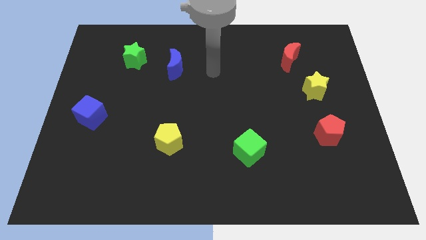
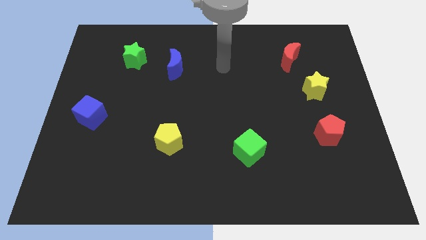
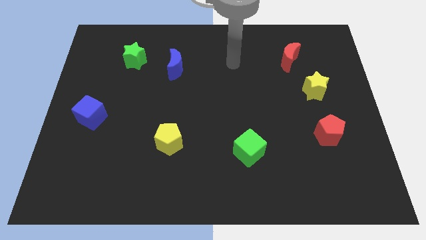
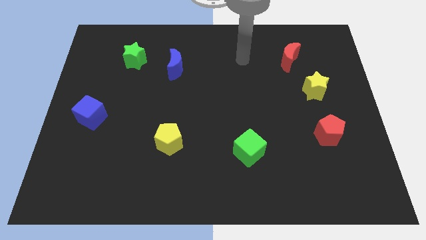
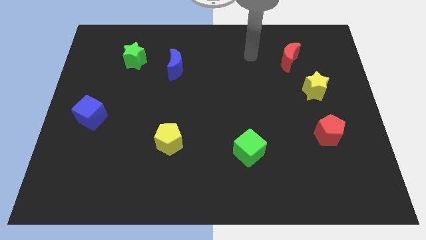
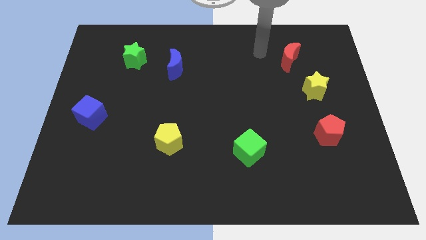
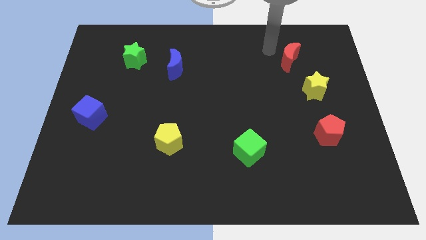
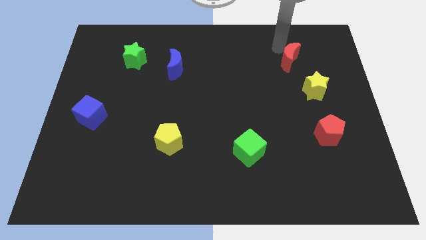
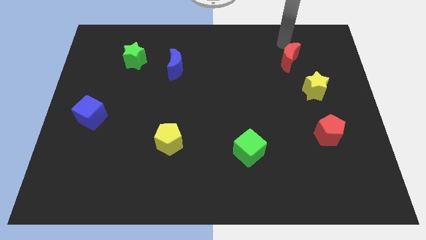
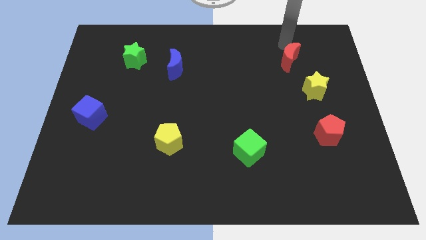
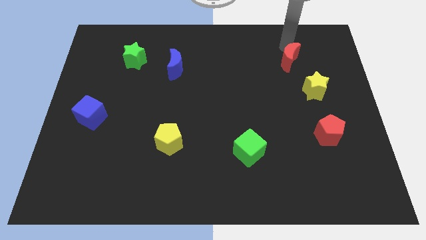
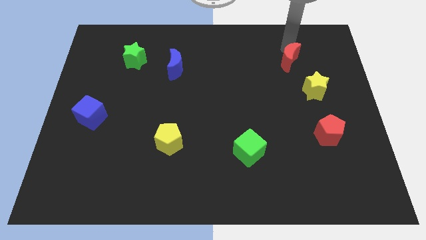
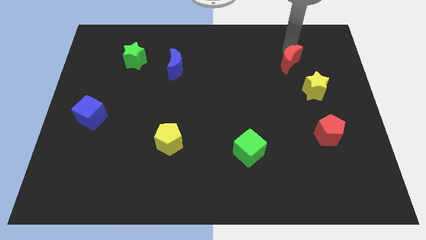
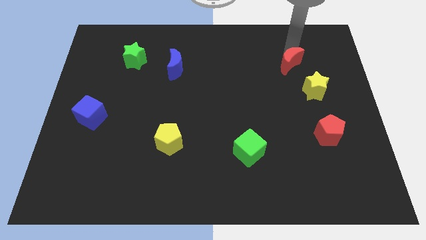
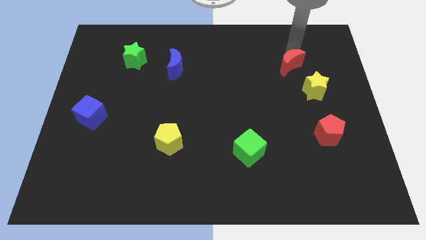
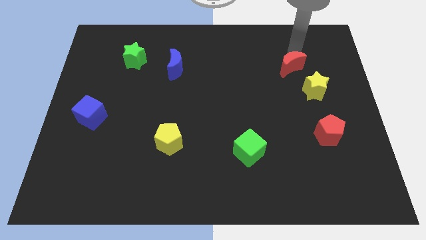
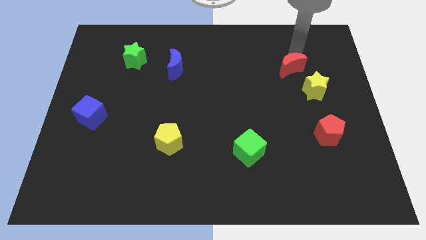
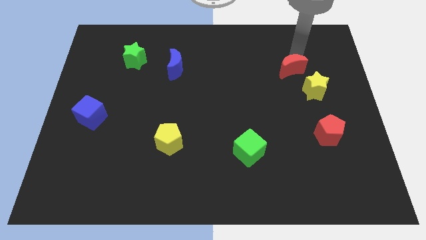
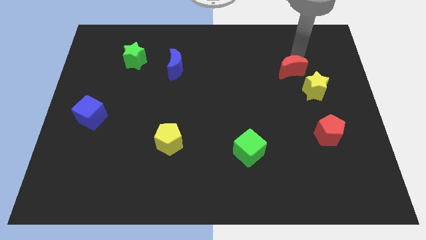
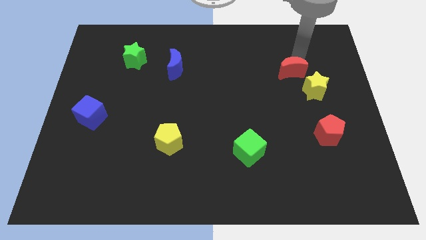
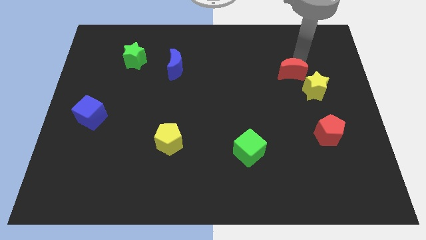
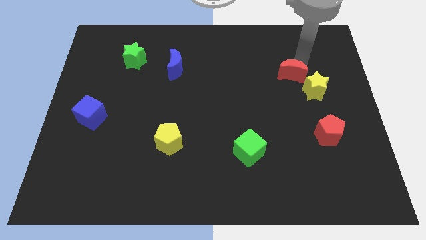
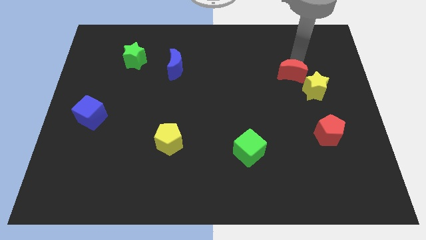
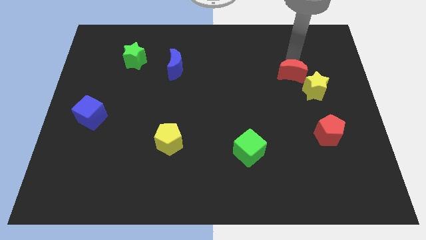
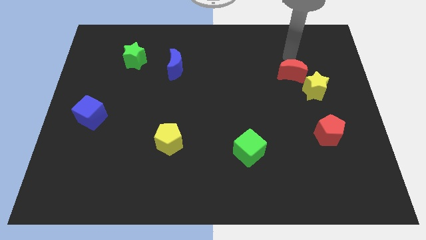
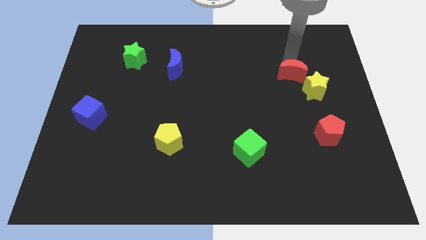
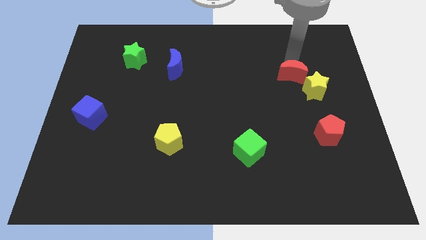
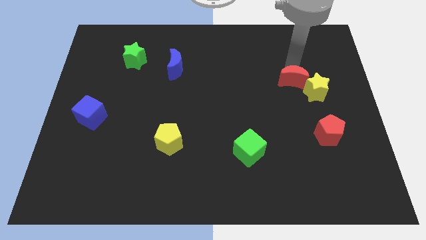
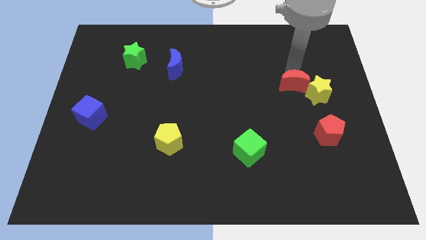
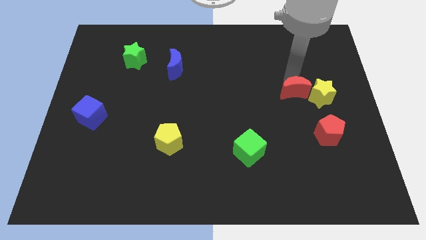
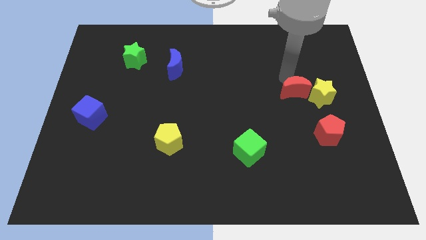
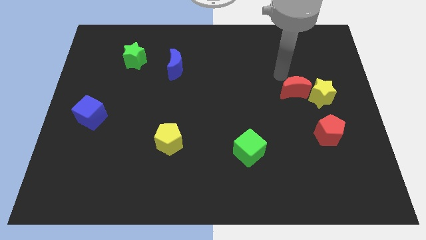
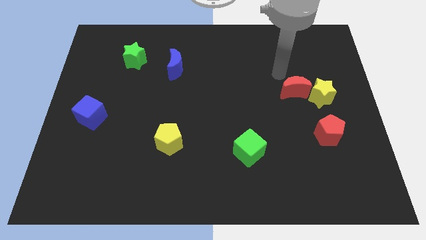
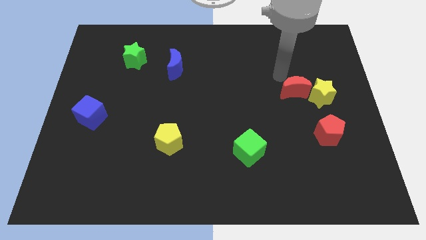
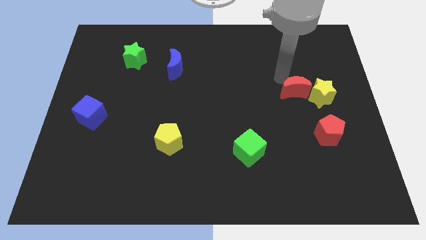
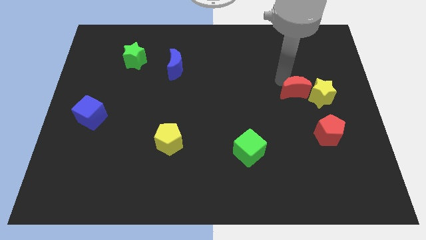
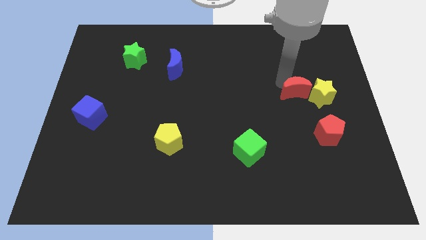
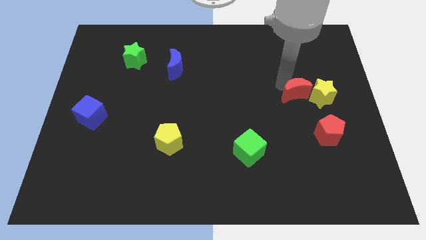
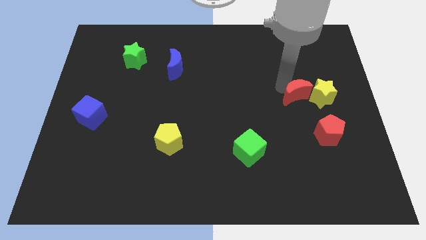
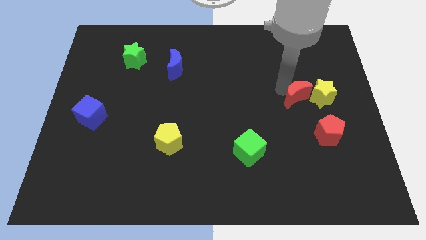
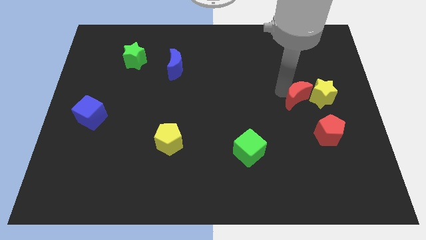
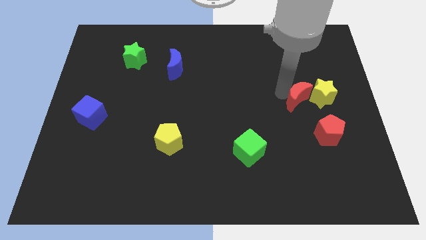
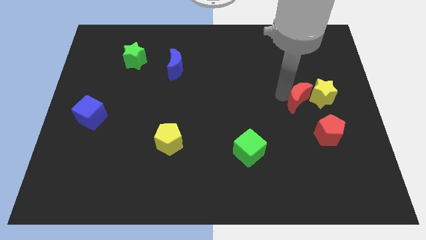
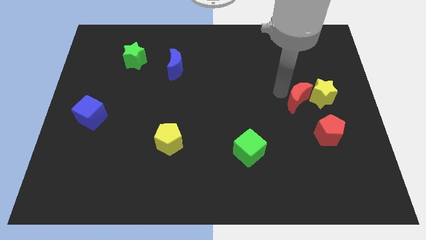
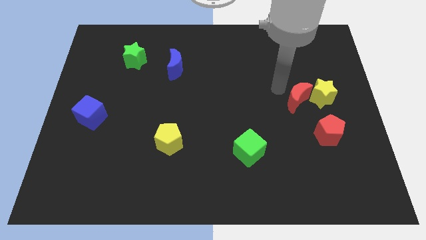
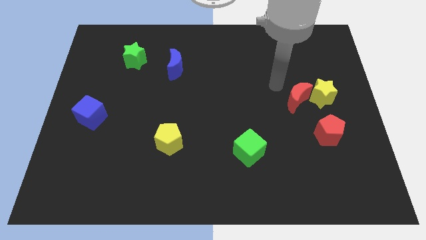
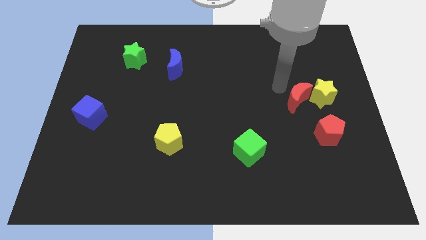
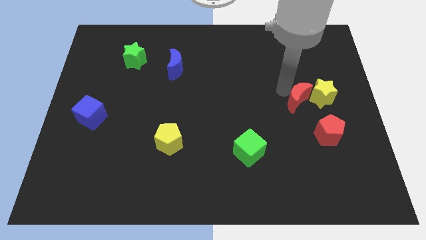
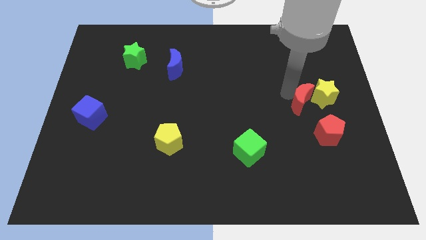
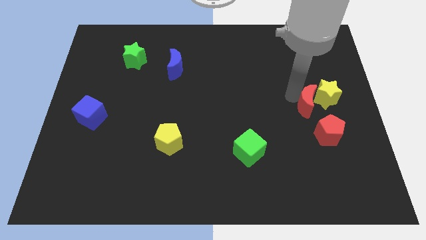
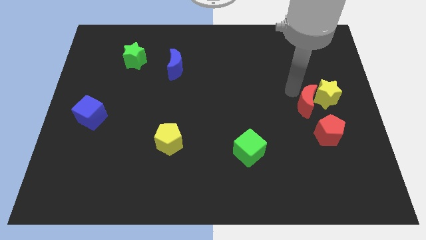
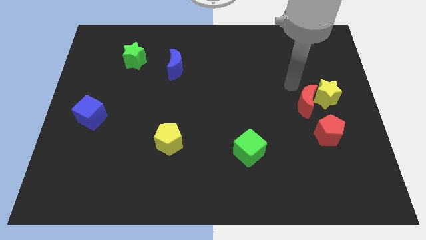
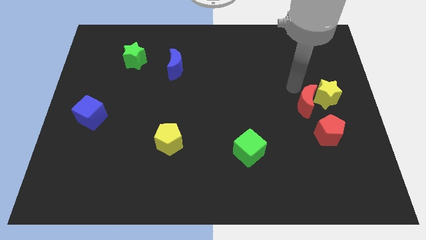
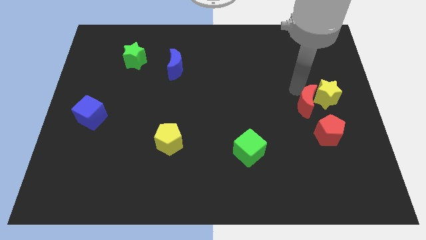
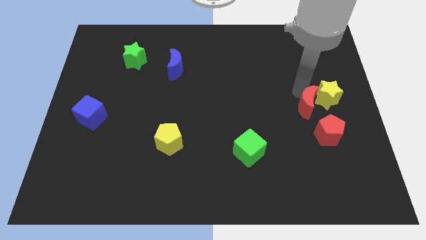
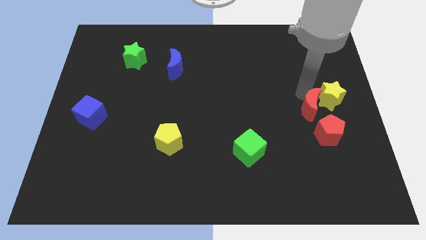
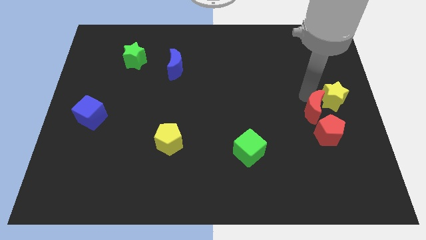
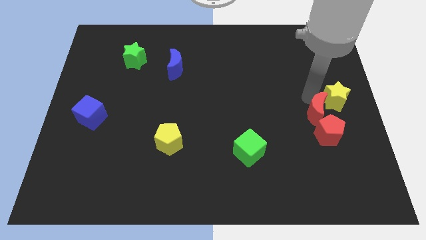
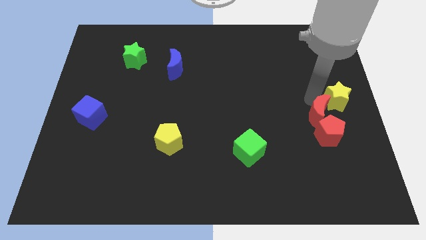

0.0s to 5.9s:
put the red moon towards the red pentagon

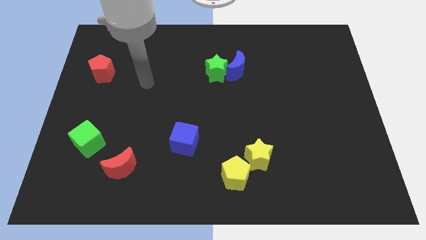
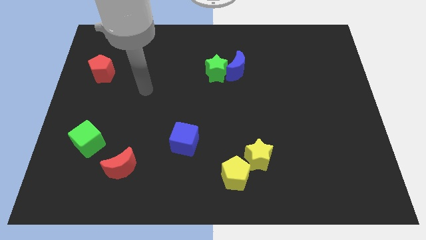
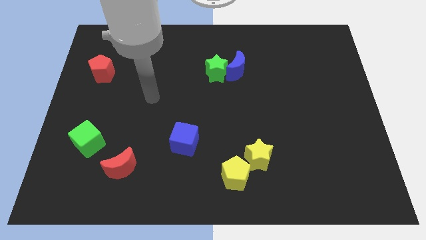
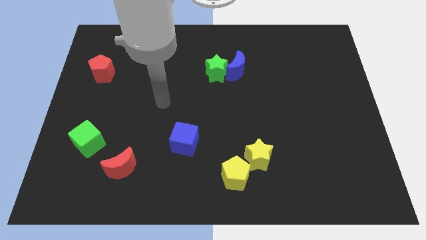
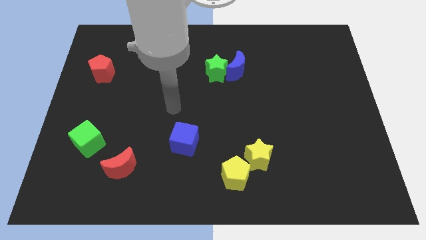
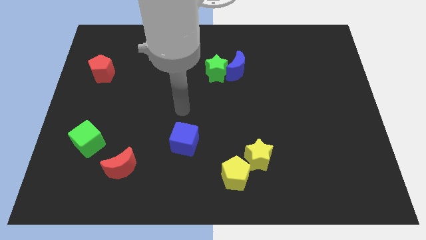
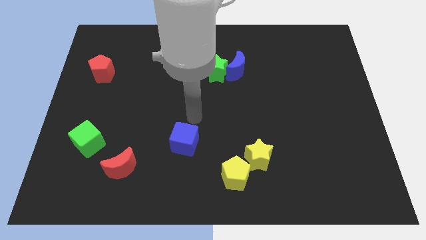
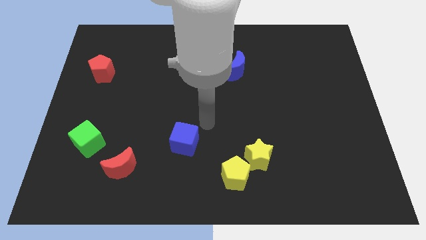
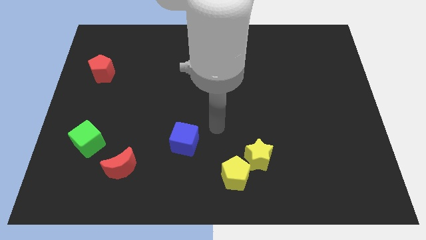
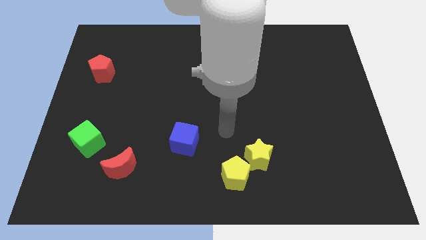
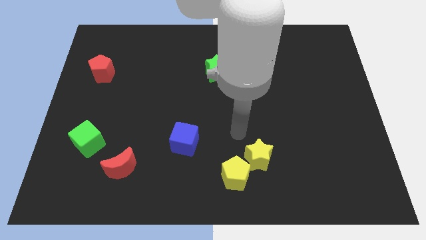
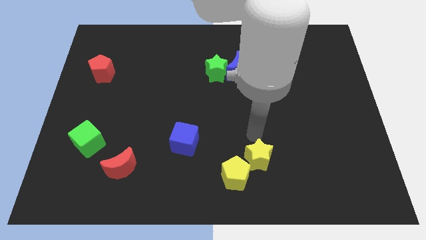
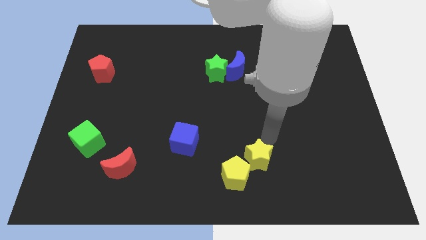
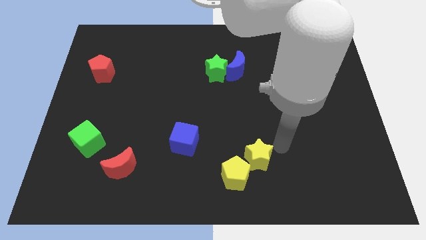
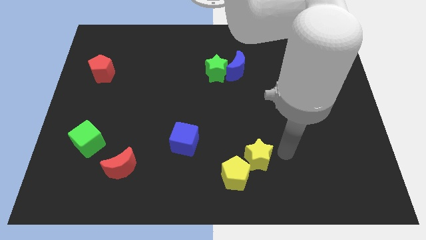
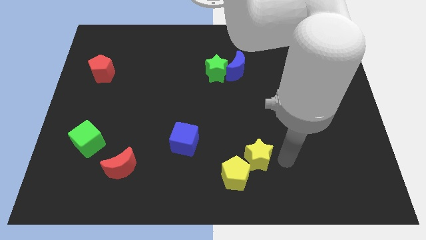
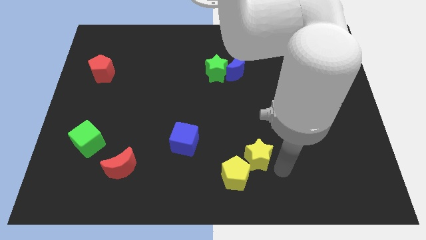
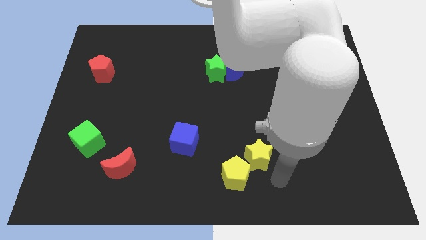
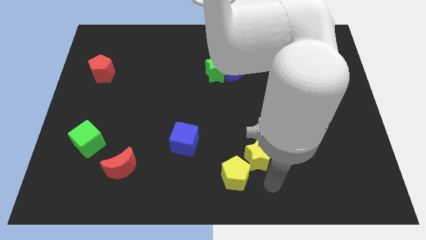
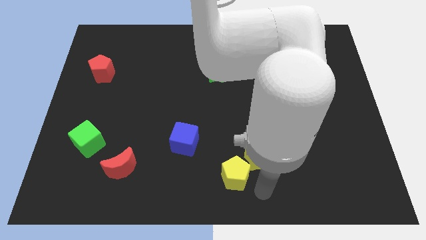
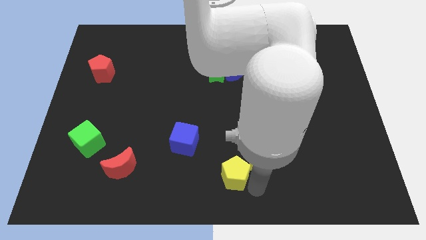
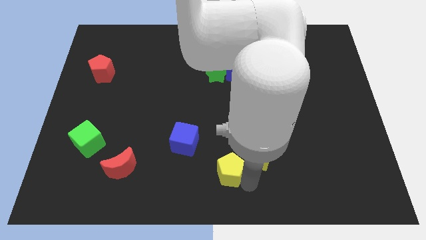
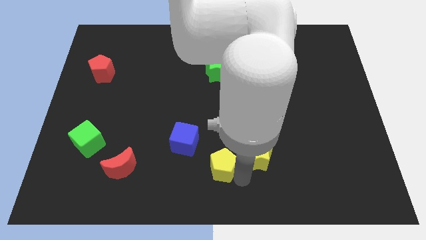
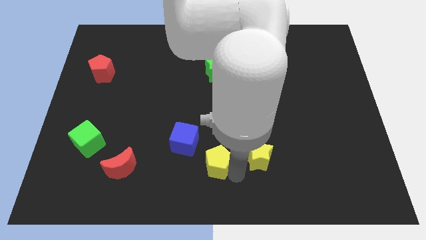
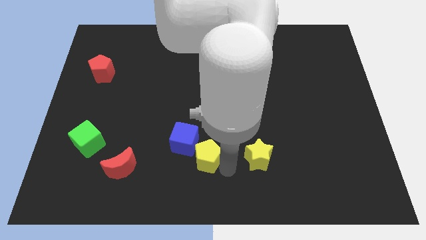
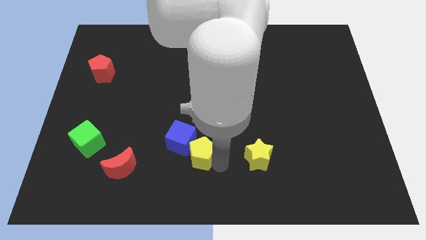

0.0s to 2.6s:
move the yellow pentagon to the blue cube
